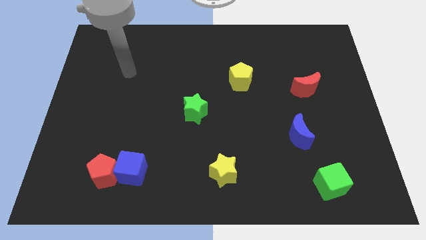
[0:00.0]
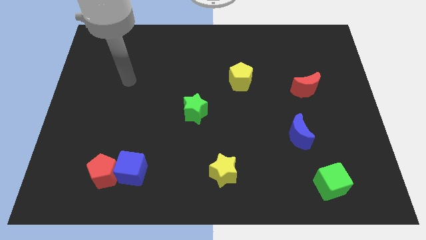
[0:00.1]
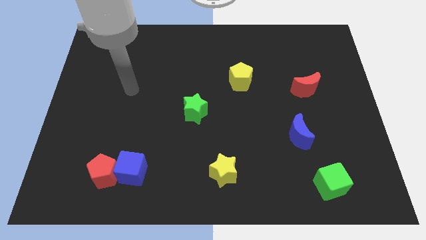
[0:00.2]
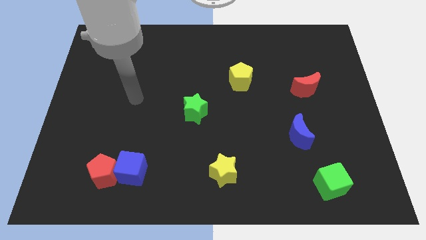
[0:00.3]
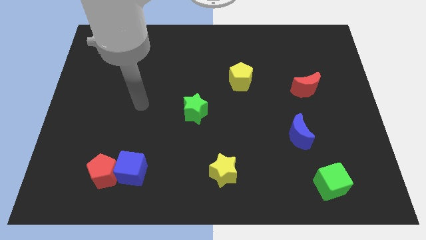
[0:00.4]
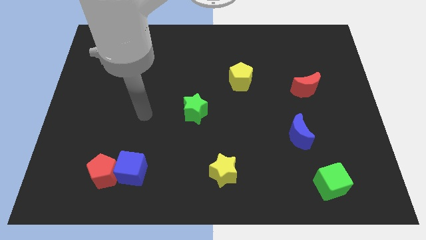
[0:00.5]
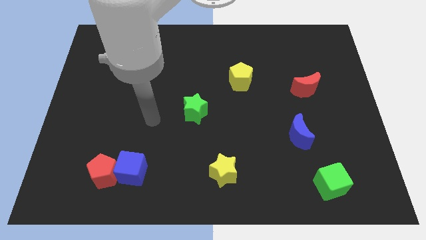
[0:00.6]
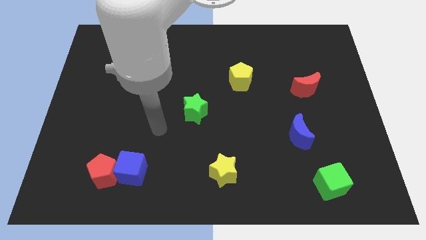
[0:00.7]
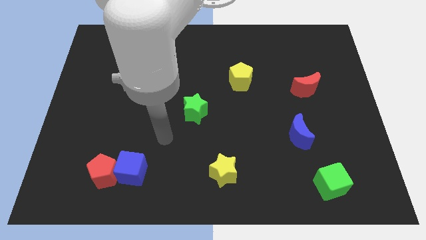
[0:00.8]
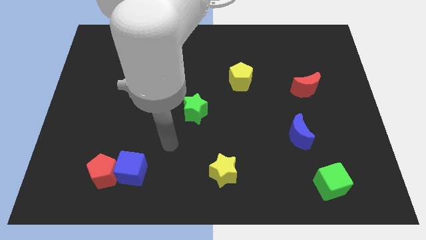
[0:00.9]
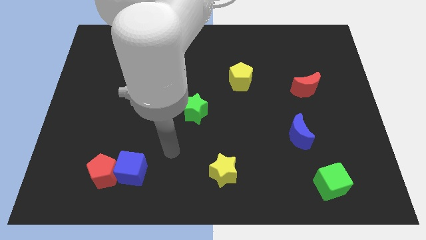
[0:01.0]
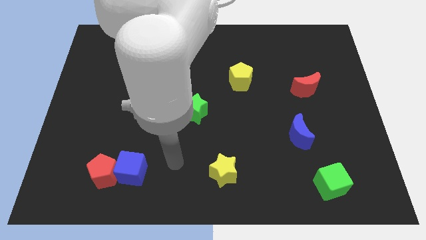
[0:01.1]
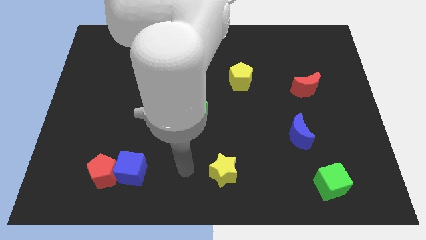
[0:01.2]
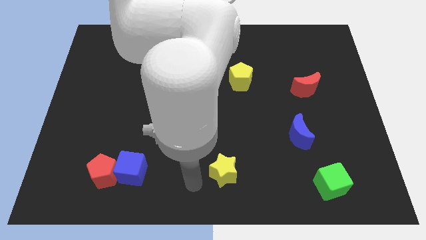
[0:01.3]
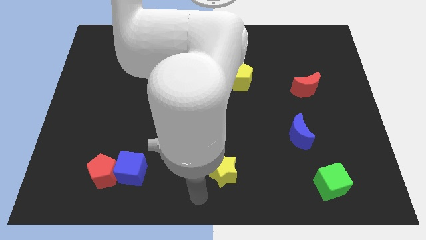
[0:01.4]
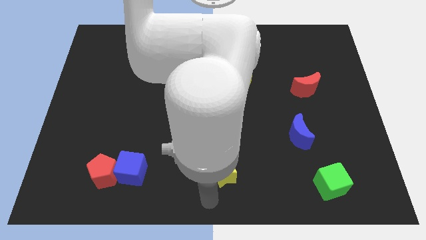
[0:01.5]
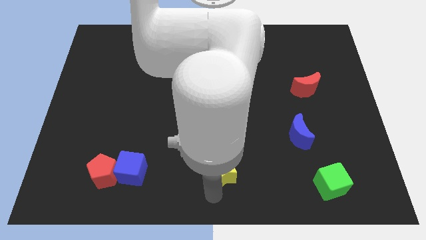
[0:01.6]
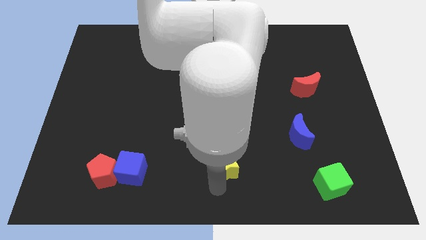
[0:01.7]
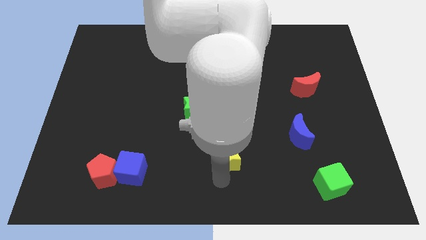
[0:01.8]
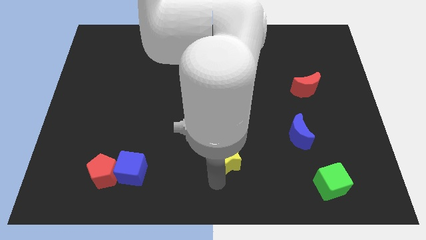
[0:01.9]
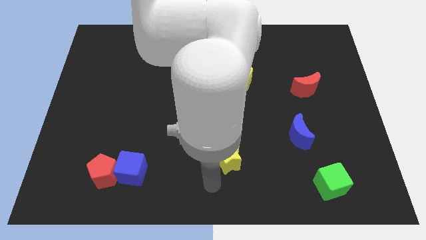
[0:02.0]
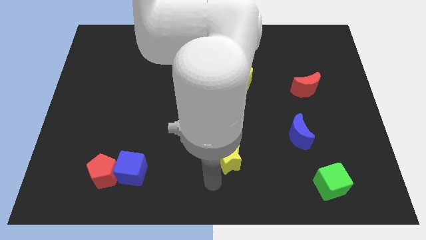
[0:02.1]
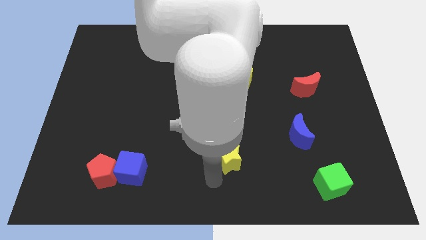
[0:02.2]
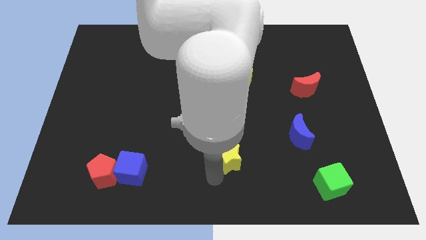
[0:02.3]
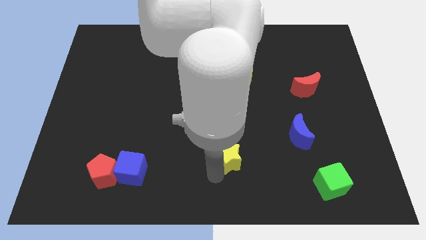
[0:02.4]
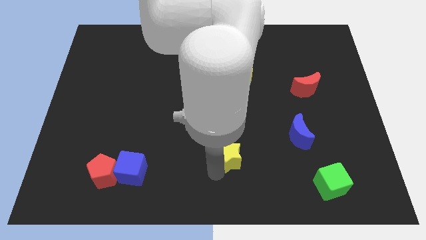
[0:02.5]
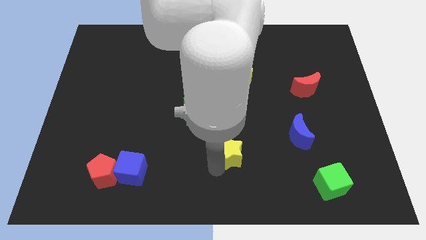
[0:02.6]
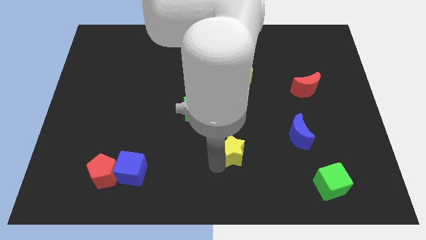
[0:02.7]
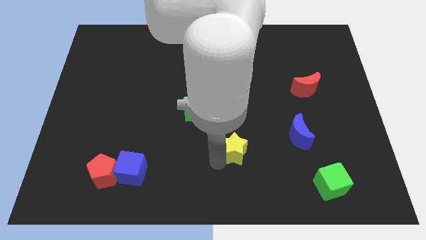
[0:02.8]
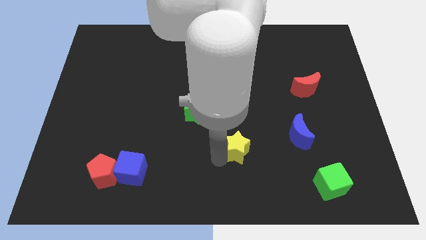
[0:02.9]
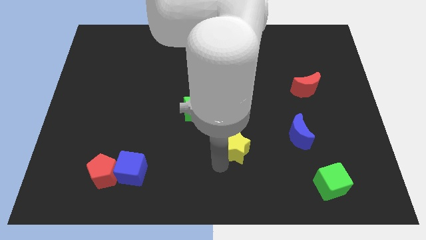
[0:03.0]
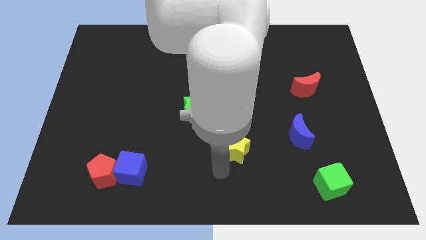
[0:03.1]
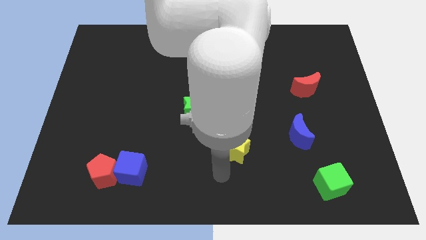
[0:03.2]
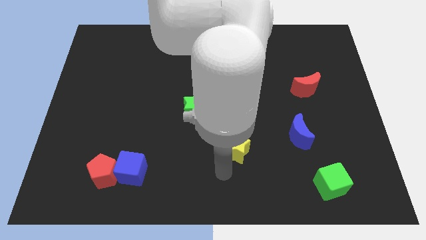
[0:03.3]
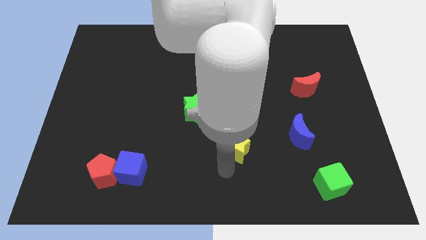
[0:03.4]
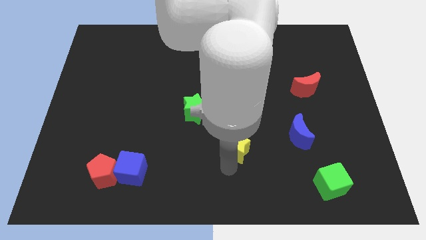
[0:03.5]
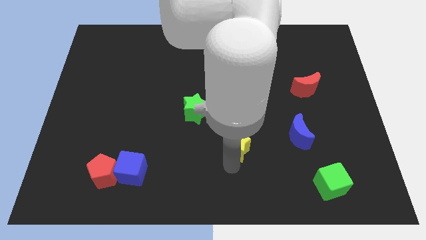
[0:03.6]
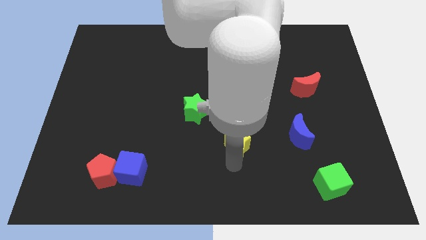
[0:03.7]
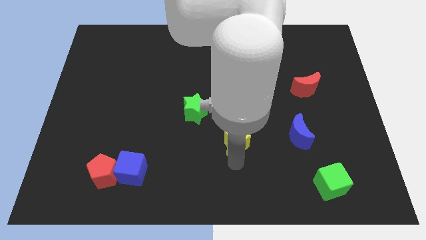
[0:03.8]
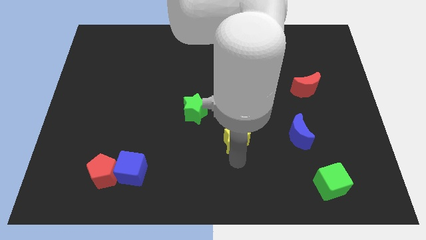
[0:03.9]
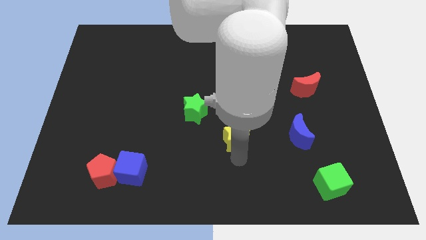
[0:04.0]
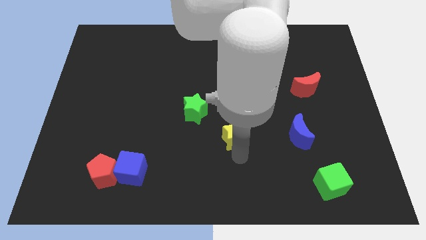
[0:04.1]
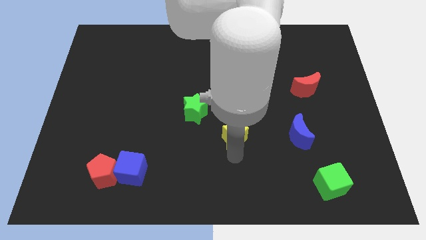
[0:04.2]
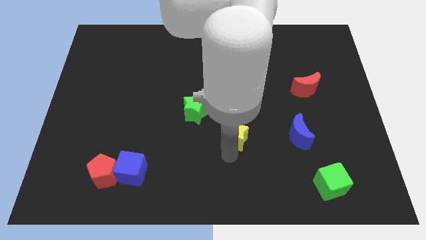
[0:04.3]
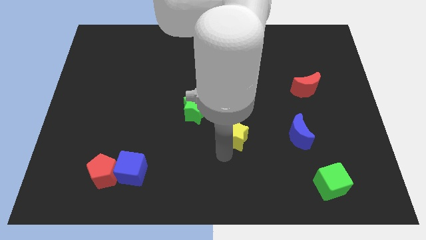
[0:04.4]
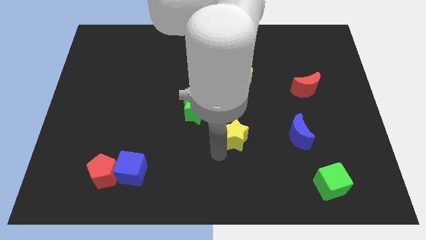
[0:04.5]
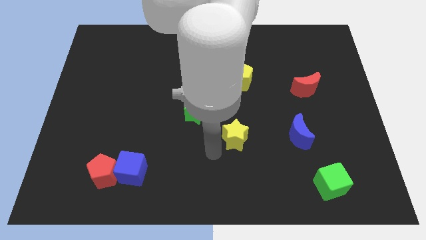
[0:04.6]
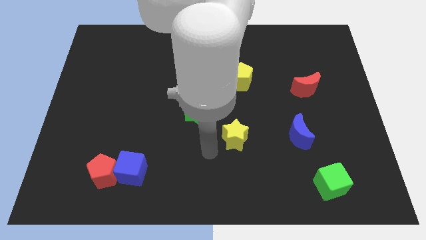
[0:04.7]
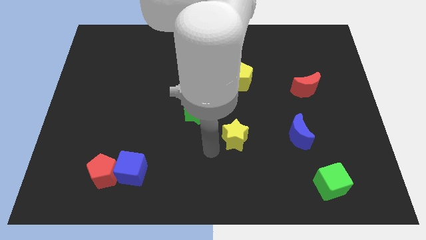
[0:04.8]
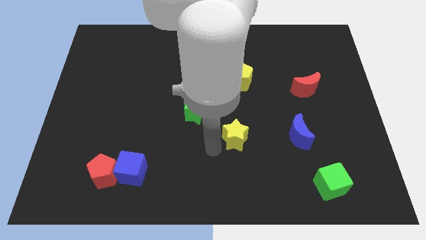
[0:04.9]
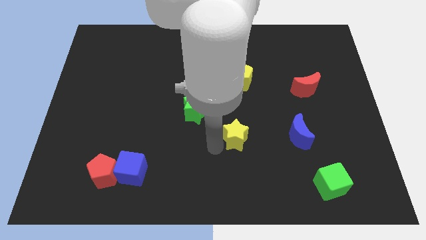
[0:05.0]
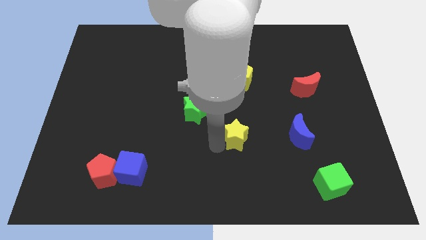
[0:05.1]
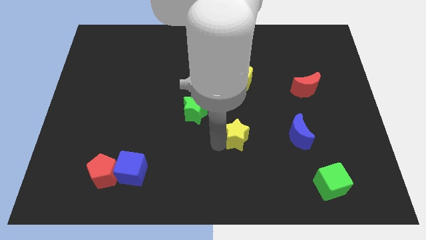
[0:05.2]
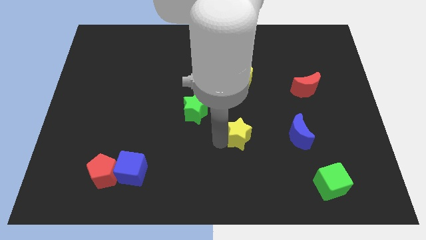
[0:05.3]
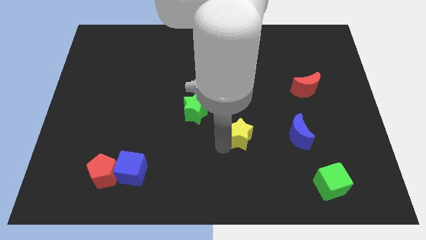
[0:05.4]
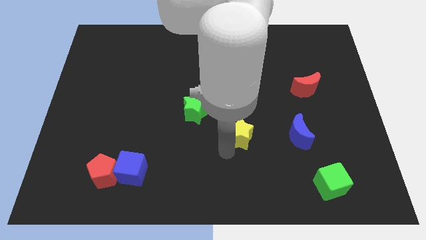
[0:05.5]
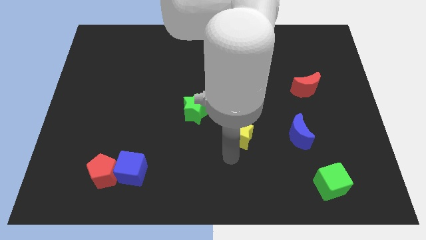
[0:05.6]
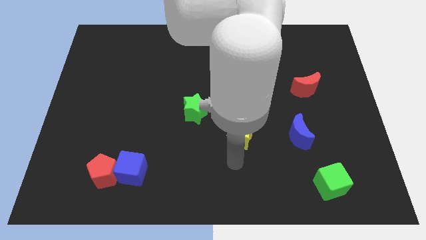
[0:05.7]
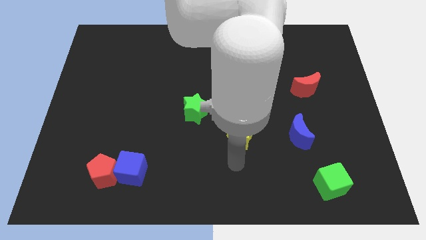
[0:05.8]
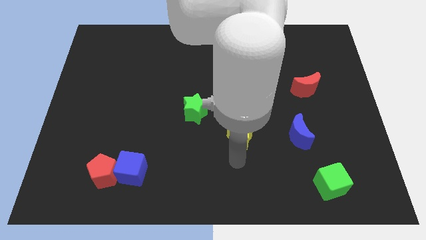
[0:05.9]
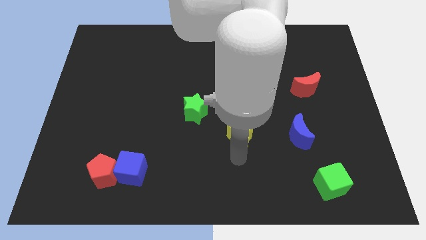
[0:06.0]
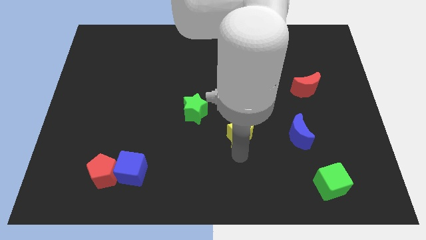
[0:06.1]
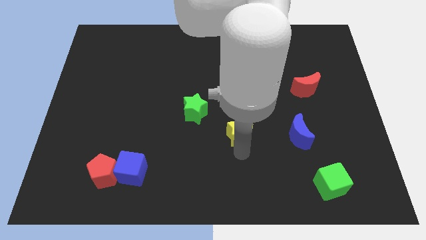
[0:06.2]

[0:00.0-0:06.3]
move the yellow star to the bottom side of the yellow pentagon
